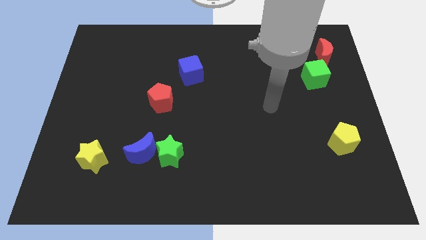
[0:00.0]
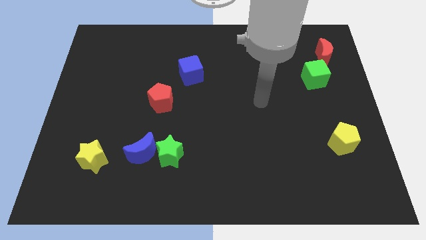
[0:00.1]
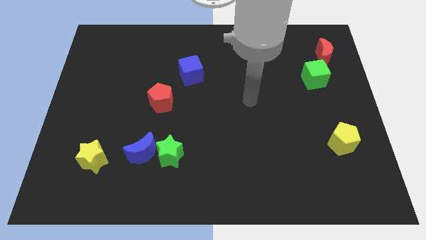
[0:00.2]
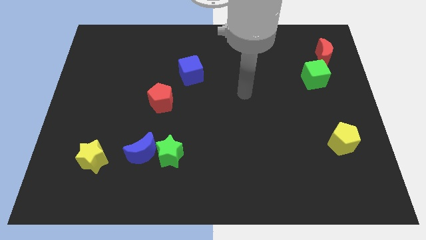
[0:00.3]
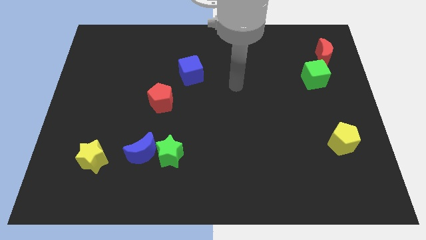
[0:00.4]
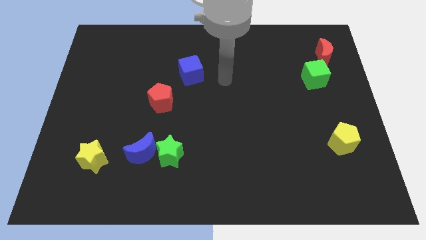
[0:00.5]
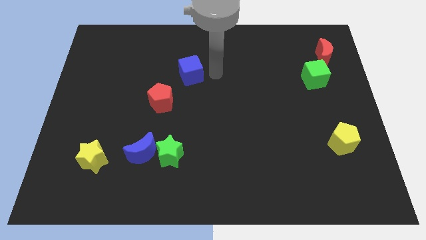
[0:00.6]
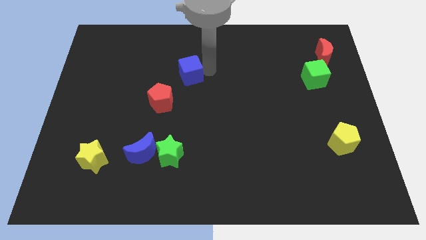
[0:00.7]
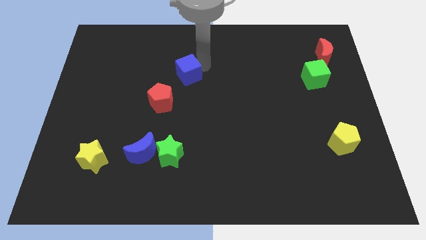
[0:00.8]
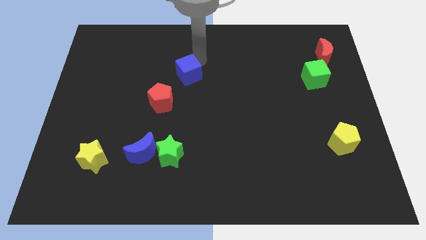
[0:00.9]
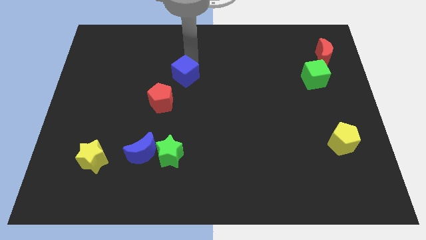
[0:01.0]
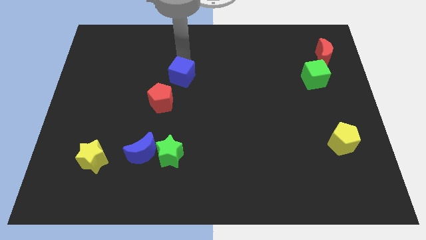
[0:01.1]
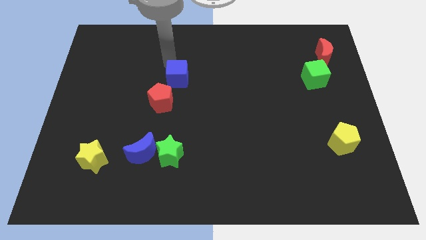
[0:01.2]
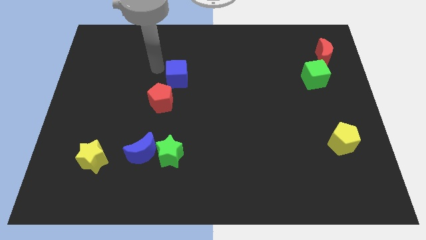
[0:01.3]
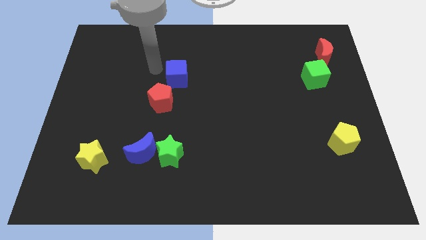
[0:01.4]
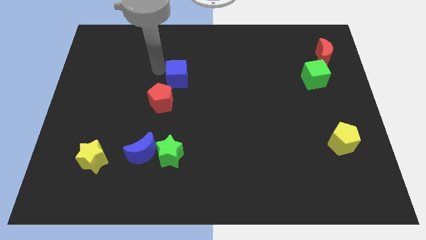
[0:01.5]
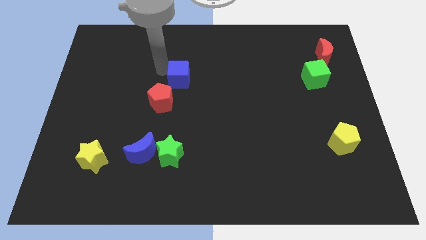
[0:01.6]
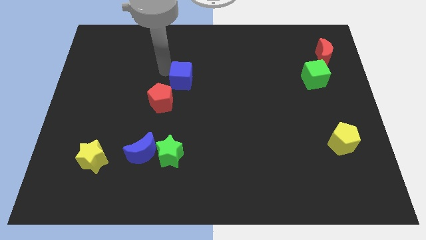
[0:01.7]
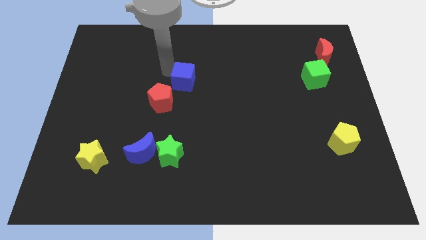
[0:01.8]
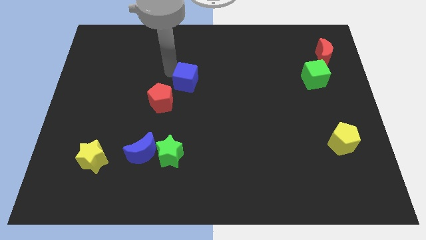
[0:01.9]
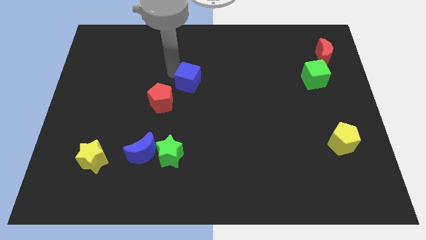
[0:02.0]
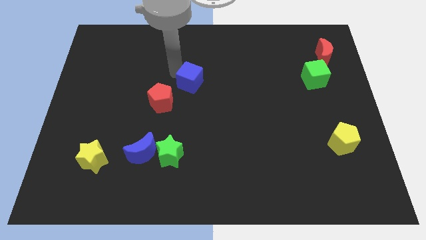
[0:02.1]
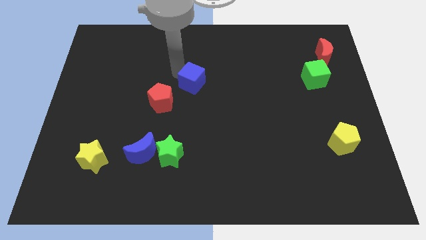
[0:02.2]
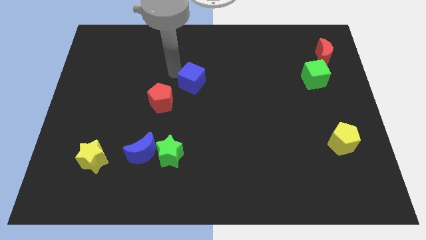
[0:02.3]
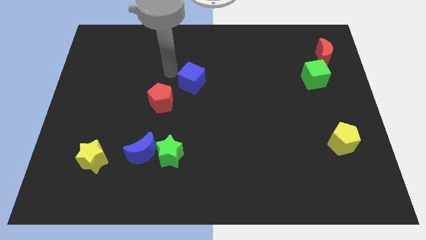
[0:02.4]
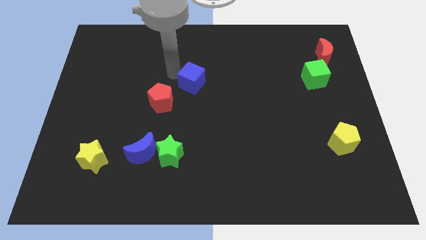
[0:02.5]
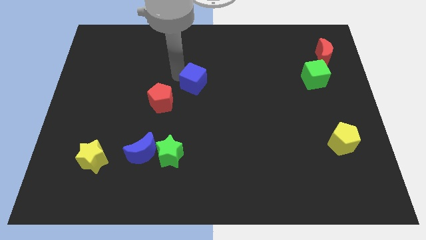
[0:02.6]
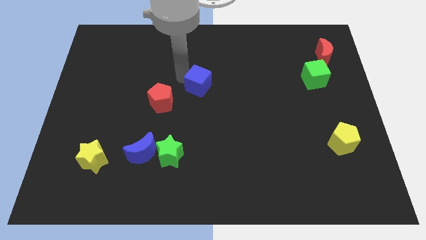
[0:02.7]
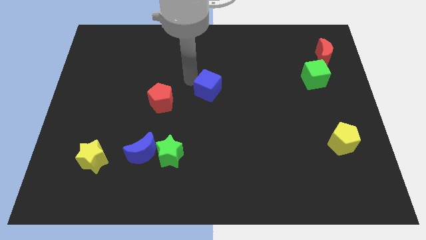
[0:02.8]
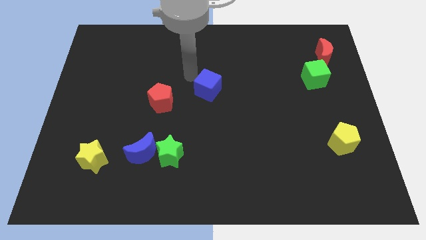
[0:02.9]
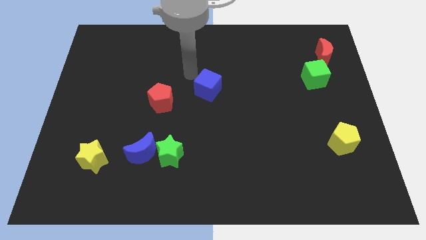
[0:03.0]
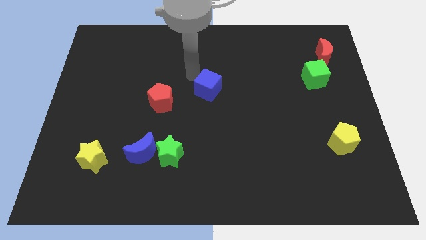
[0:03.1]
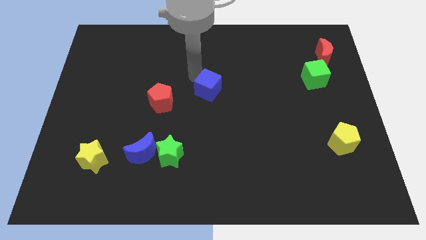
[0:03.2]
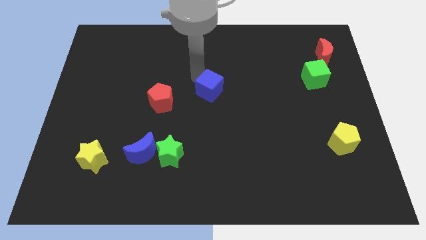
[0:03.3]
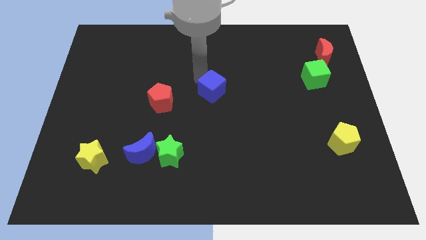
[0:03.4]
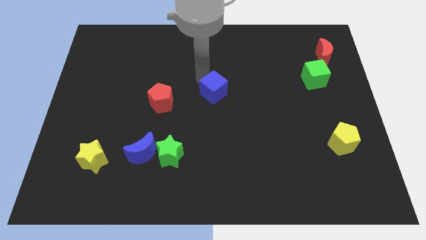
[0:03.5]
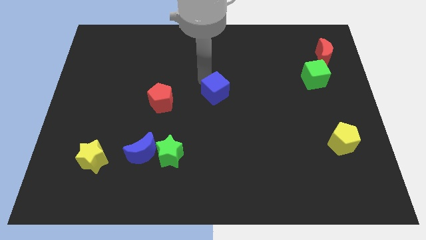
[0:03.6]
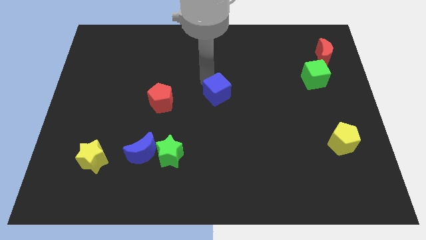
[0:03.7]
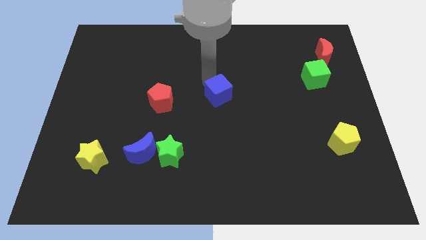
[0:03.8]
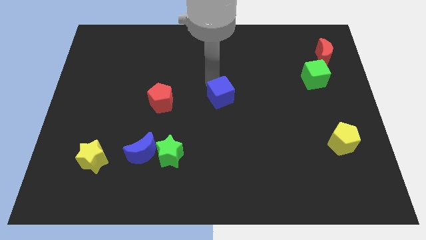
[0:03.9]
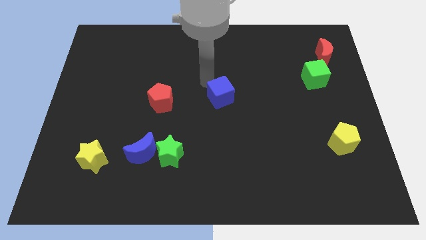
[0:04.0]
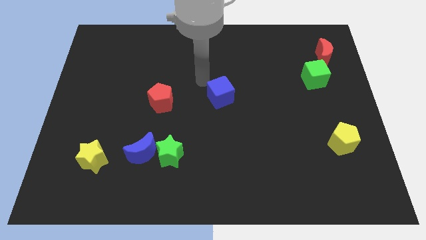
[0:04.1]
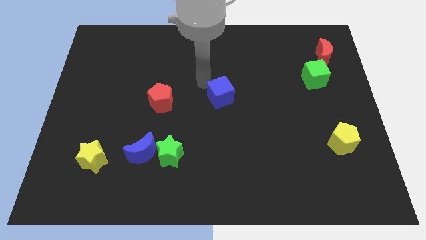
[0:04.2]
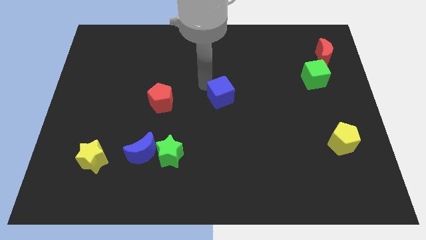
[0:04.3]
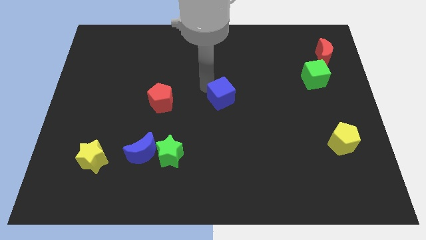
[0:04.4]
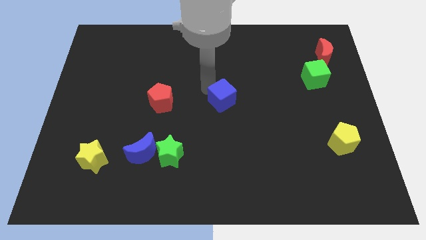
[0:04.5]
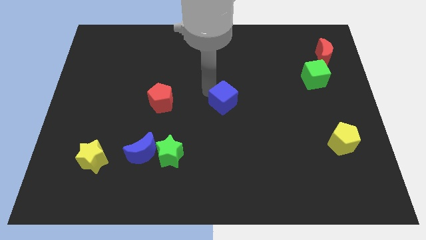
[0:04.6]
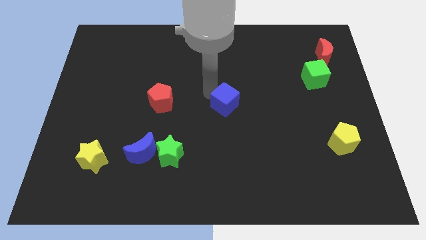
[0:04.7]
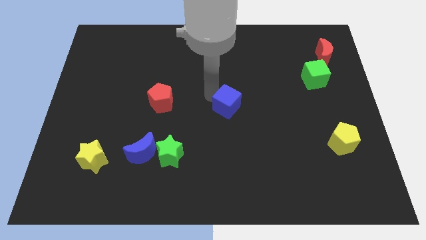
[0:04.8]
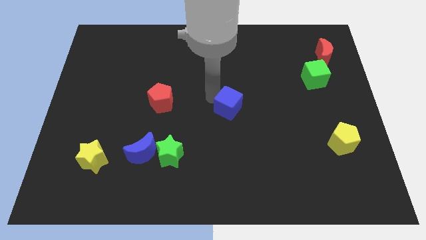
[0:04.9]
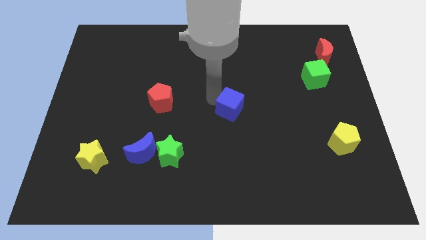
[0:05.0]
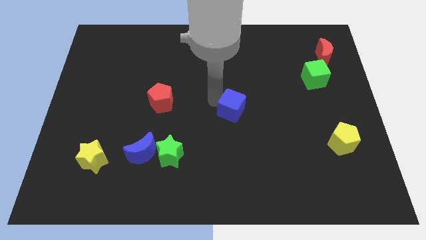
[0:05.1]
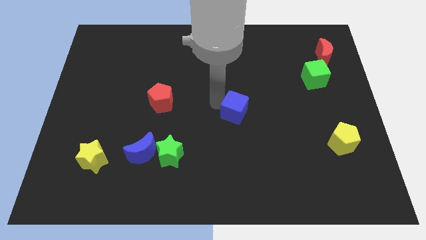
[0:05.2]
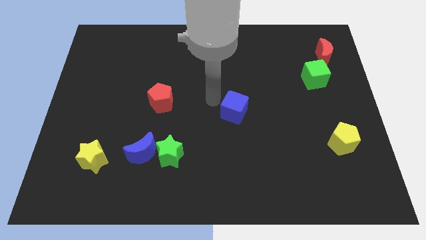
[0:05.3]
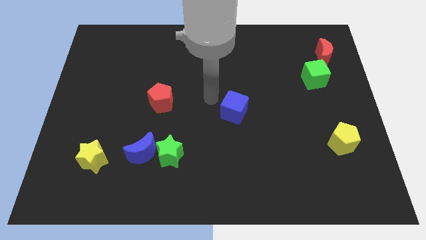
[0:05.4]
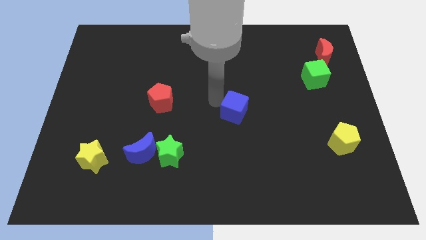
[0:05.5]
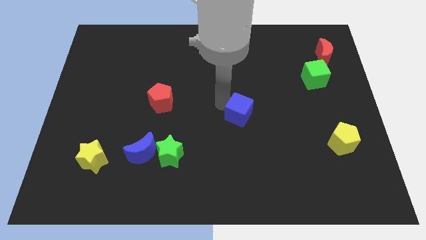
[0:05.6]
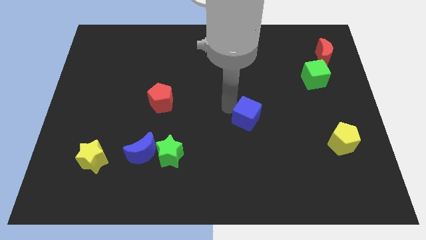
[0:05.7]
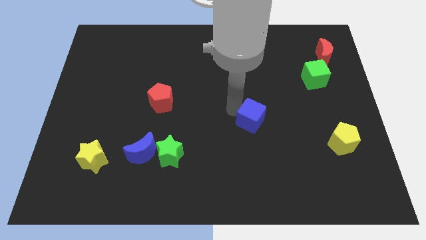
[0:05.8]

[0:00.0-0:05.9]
push the blue cube downwards and then right

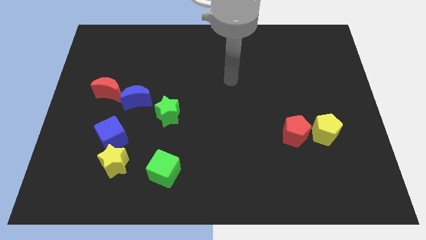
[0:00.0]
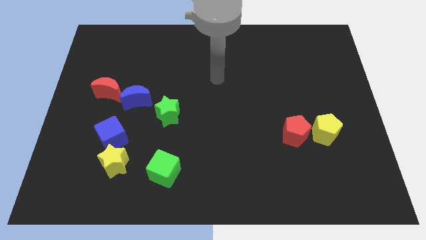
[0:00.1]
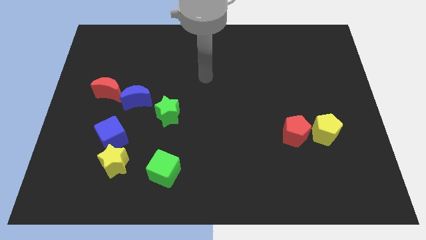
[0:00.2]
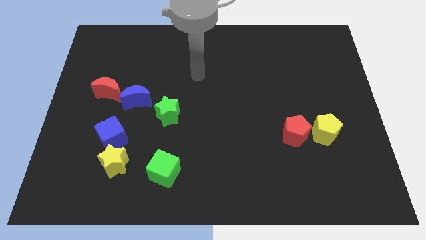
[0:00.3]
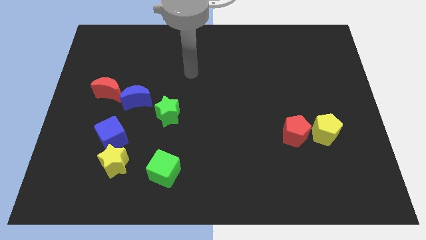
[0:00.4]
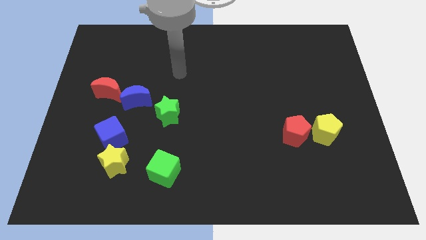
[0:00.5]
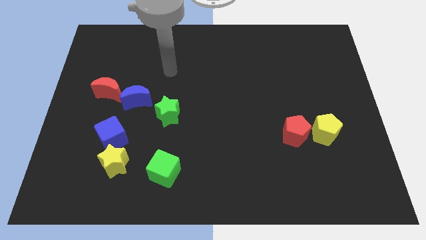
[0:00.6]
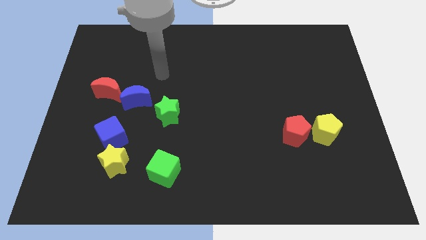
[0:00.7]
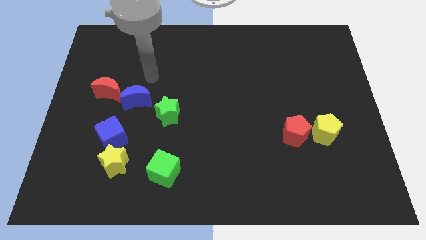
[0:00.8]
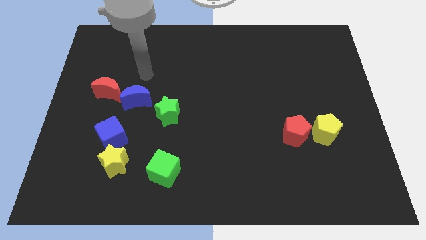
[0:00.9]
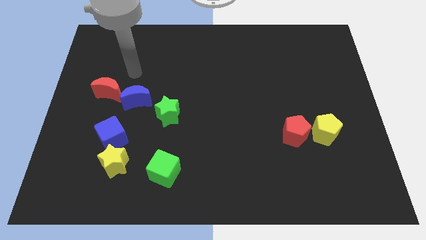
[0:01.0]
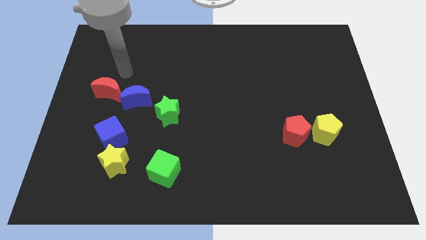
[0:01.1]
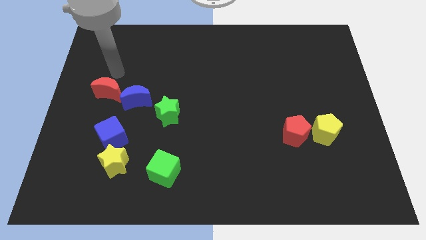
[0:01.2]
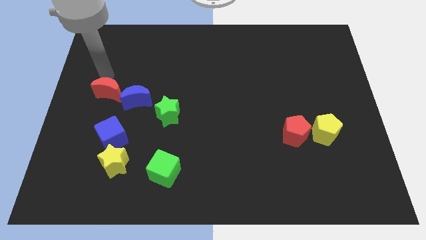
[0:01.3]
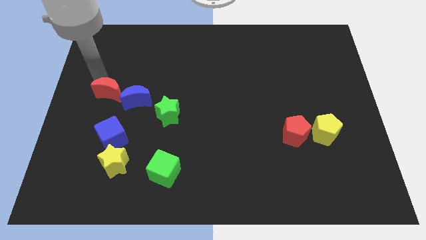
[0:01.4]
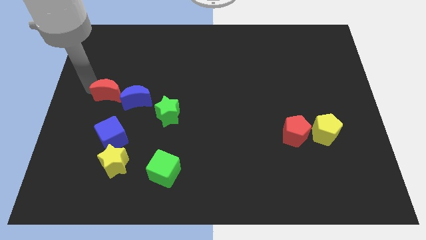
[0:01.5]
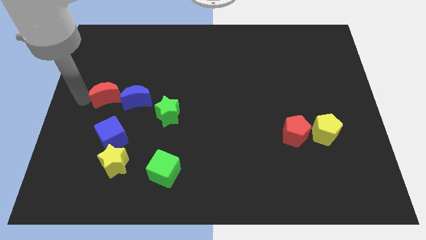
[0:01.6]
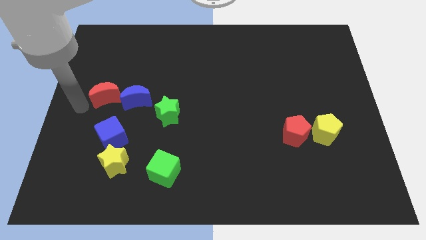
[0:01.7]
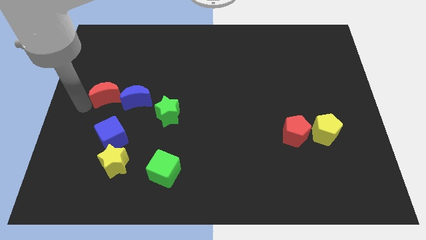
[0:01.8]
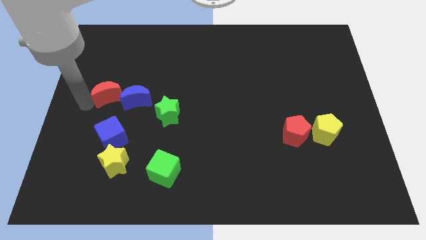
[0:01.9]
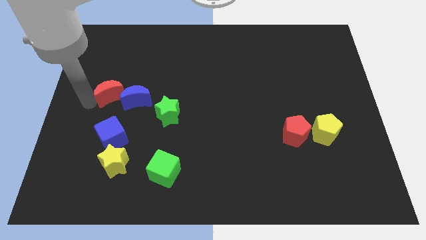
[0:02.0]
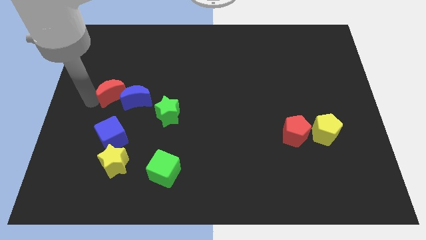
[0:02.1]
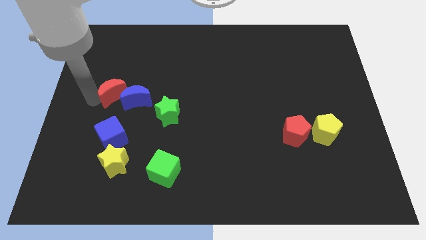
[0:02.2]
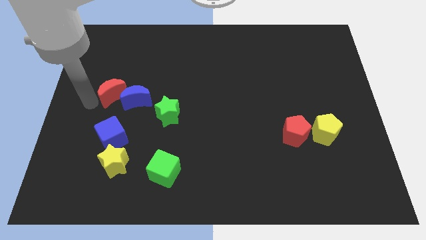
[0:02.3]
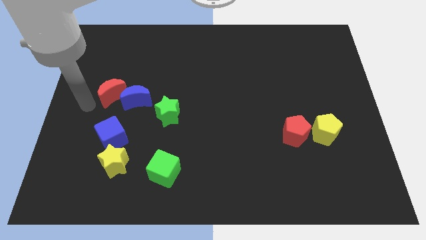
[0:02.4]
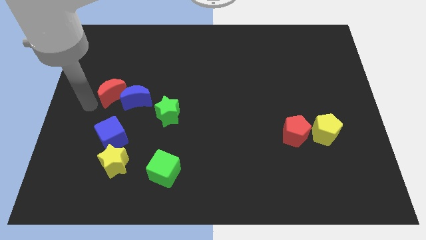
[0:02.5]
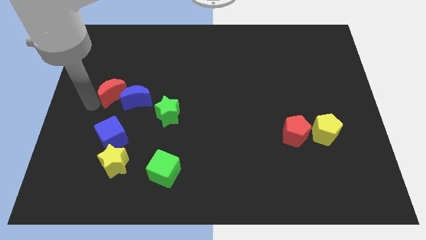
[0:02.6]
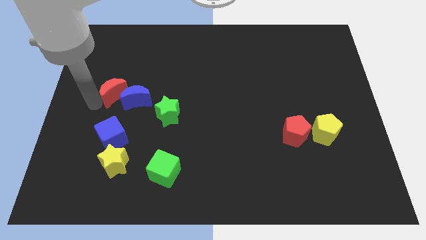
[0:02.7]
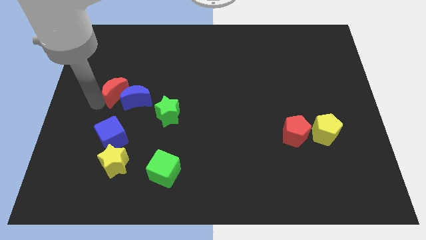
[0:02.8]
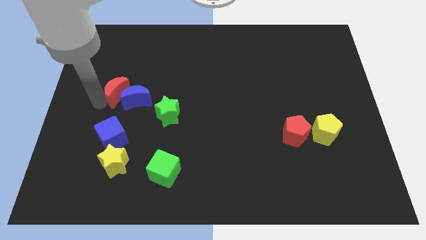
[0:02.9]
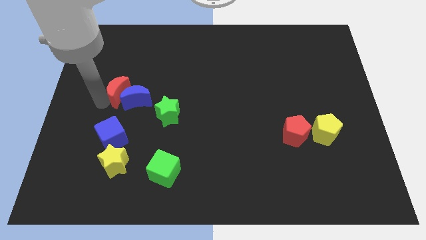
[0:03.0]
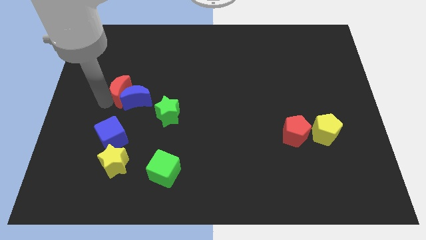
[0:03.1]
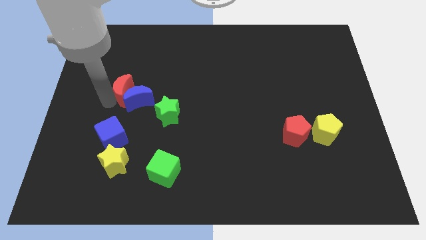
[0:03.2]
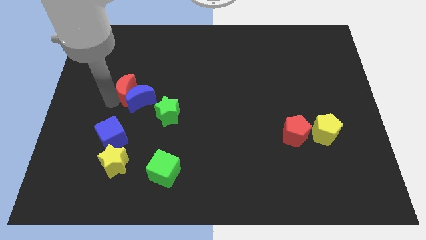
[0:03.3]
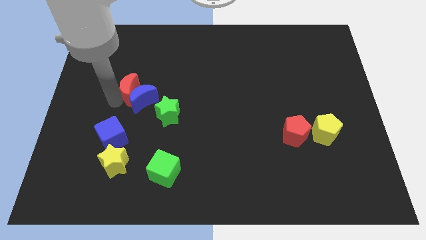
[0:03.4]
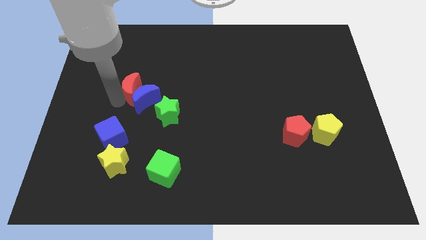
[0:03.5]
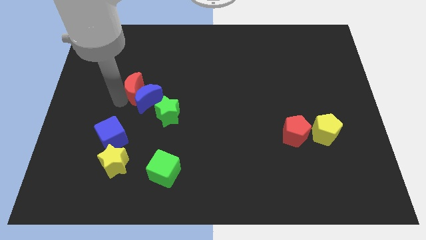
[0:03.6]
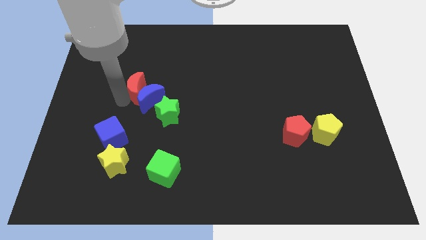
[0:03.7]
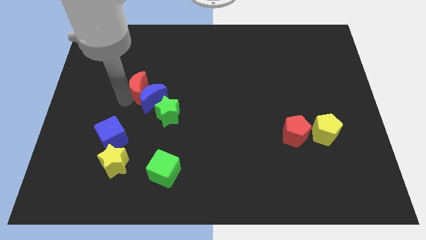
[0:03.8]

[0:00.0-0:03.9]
slightly push the red moon right
